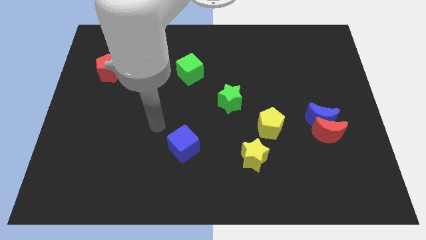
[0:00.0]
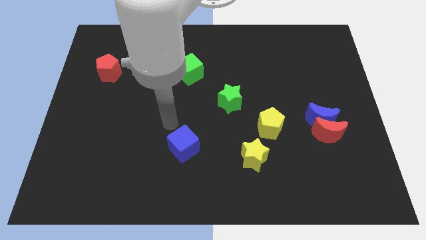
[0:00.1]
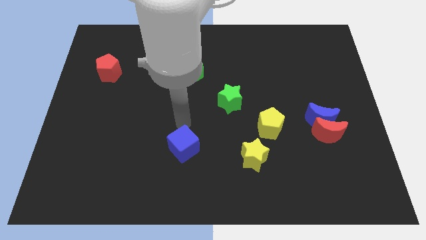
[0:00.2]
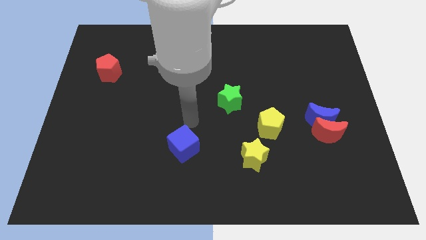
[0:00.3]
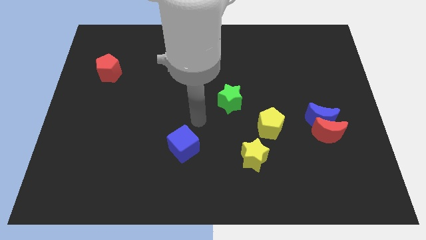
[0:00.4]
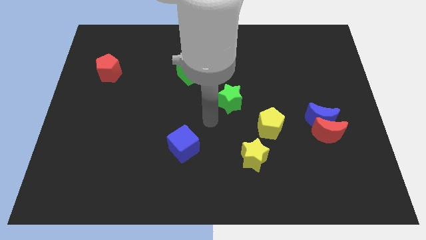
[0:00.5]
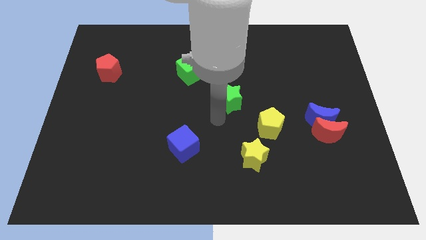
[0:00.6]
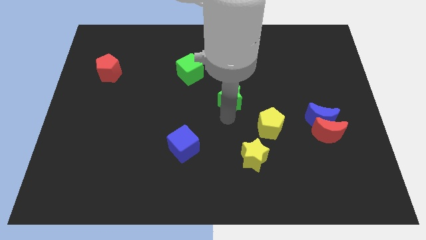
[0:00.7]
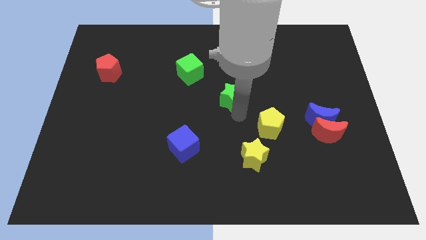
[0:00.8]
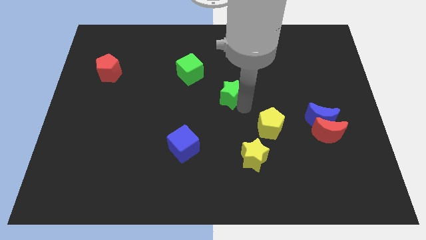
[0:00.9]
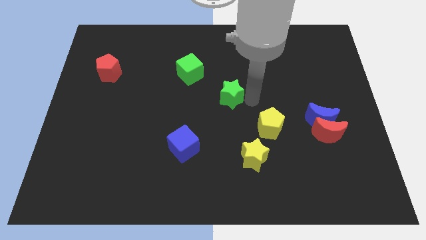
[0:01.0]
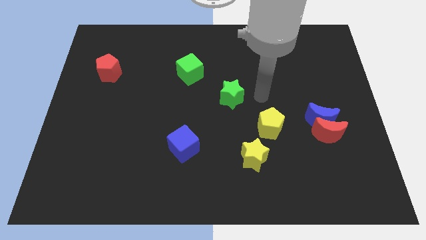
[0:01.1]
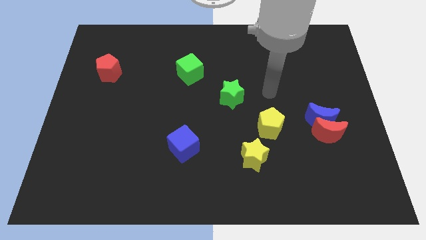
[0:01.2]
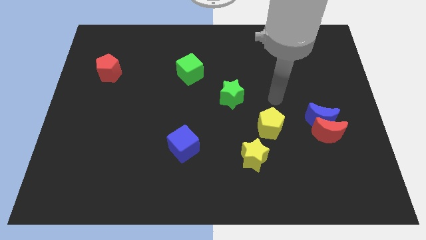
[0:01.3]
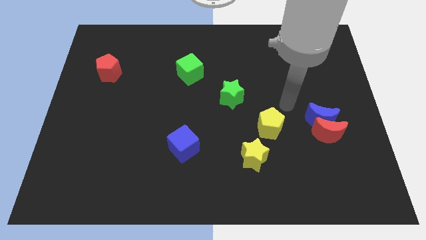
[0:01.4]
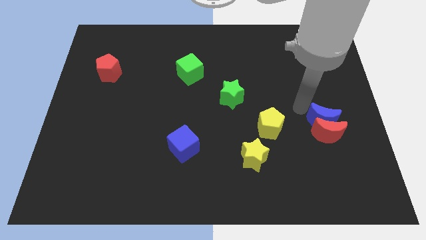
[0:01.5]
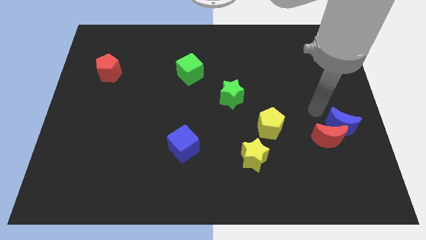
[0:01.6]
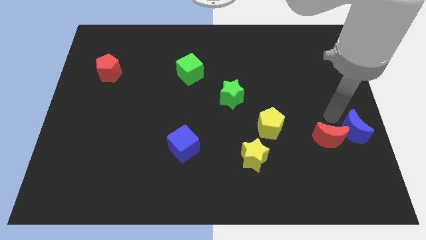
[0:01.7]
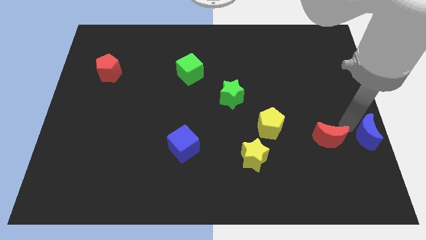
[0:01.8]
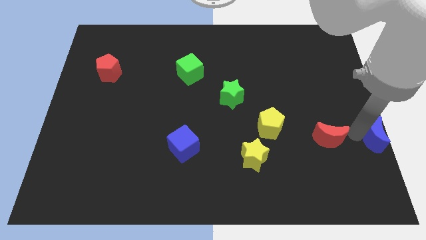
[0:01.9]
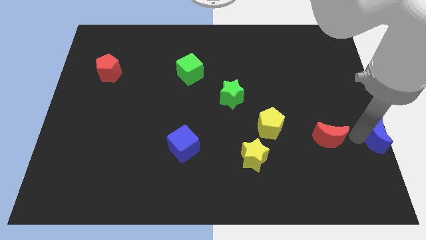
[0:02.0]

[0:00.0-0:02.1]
separate the red moon from the blue moon

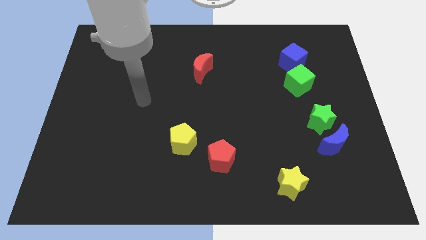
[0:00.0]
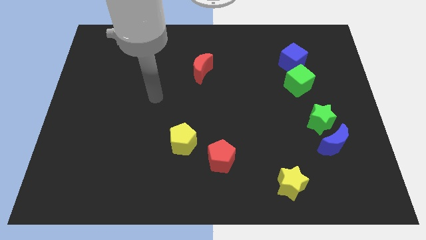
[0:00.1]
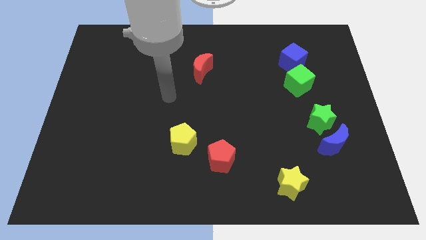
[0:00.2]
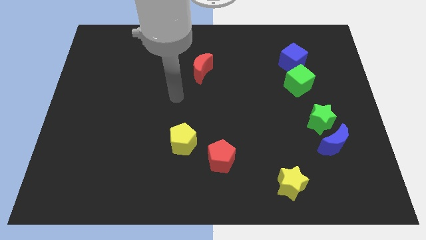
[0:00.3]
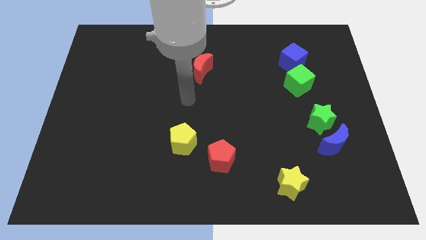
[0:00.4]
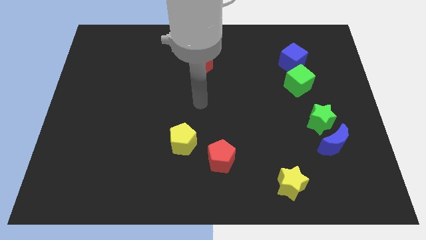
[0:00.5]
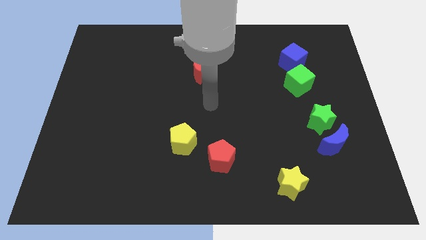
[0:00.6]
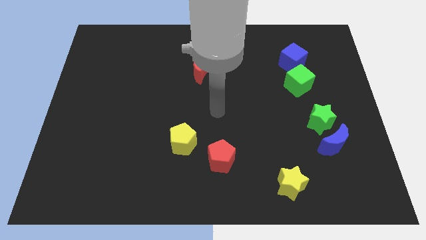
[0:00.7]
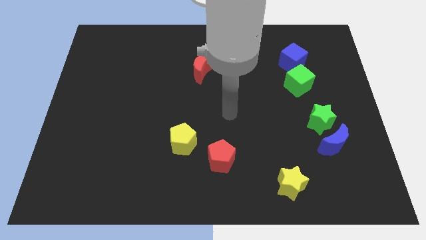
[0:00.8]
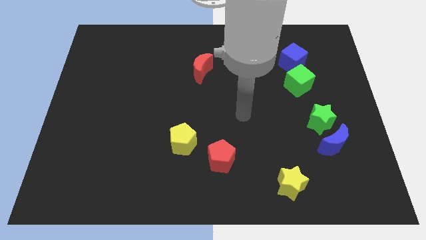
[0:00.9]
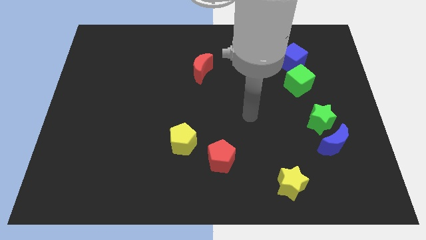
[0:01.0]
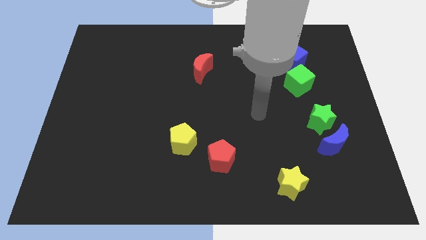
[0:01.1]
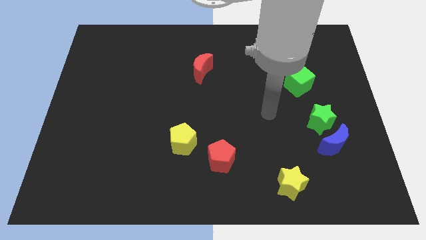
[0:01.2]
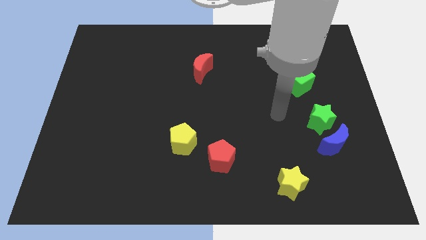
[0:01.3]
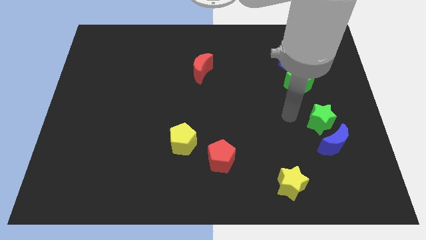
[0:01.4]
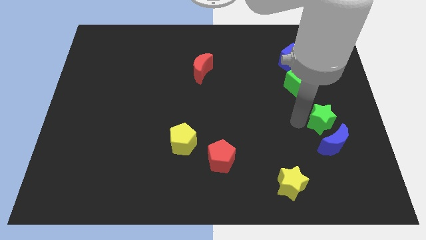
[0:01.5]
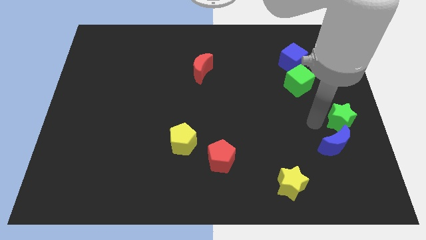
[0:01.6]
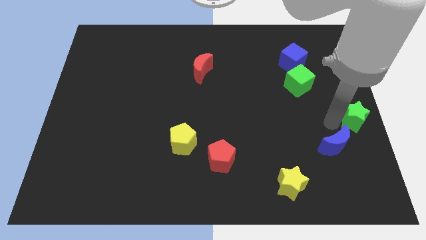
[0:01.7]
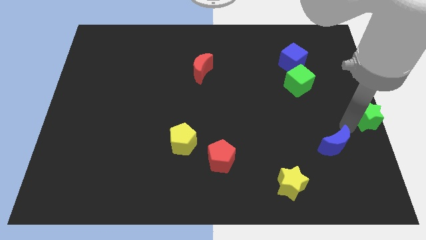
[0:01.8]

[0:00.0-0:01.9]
move the blue moon away from the green star

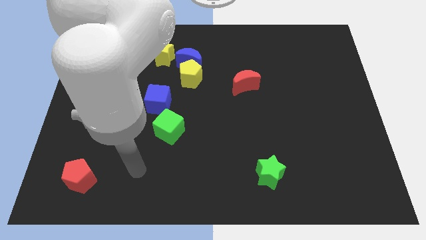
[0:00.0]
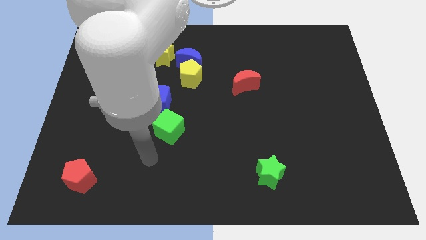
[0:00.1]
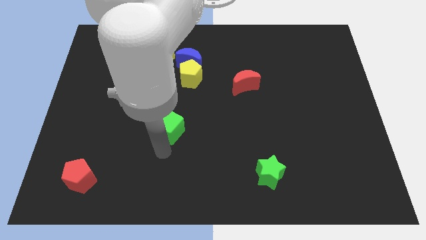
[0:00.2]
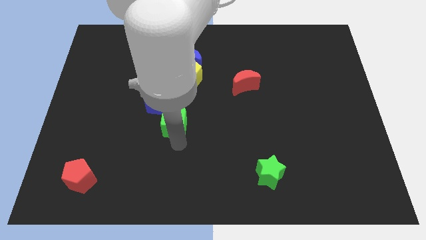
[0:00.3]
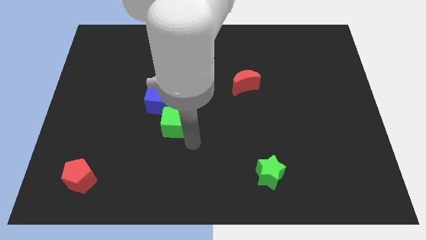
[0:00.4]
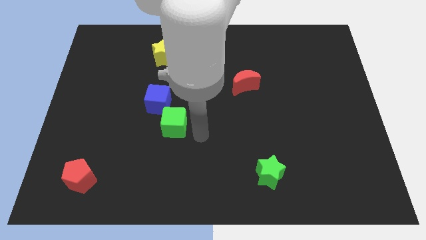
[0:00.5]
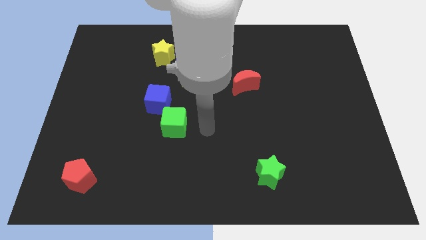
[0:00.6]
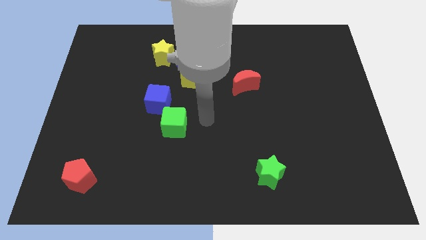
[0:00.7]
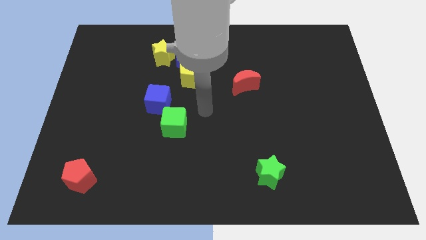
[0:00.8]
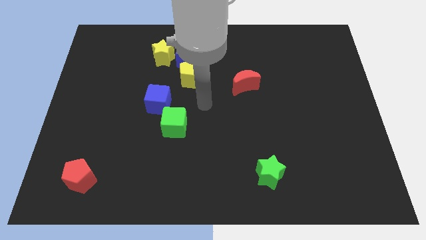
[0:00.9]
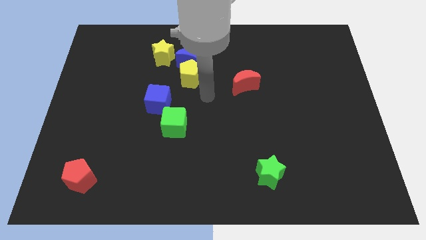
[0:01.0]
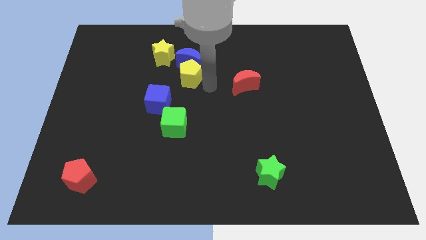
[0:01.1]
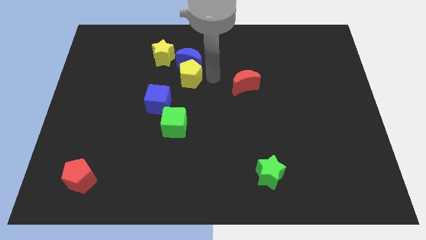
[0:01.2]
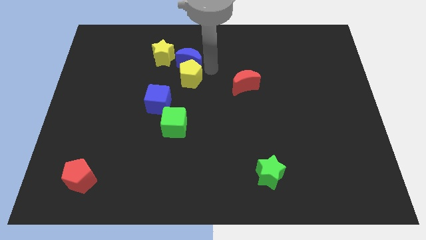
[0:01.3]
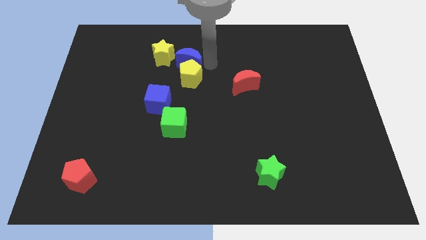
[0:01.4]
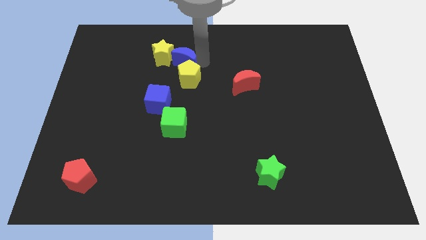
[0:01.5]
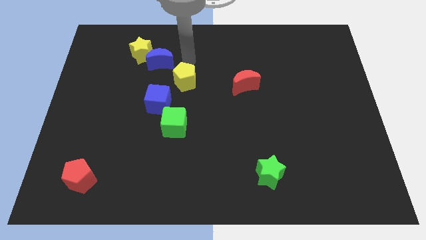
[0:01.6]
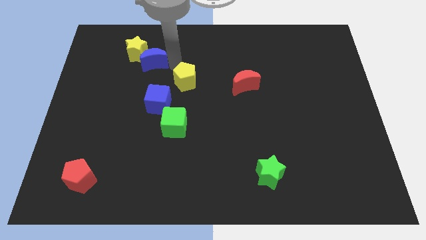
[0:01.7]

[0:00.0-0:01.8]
move the yellow pentagon away from the blue moon

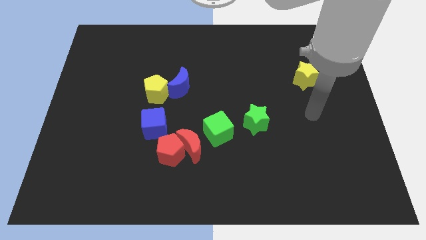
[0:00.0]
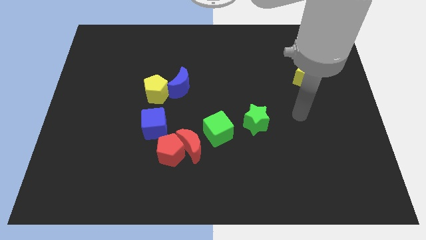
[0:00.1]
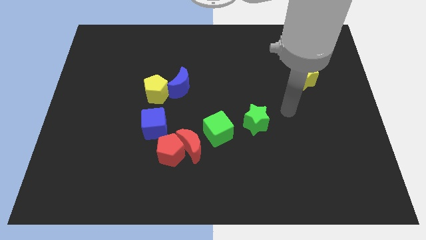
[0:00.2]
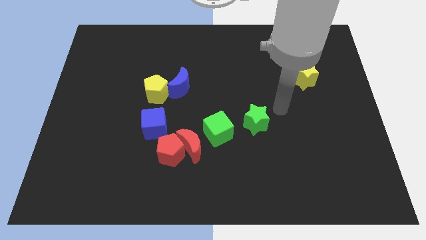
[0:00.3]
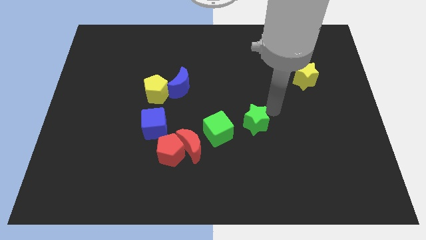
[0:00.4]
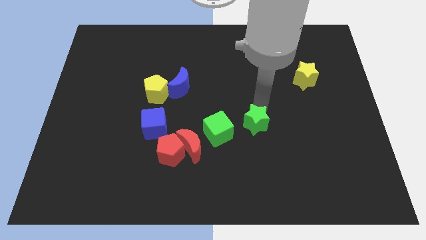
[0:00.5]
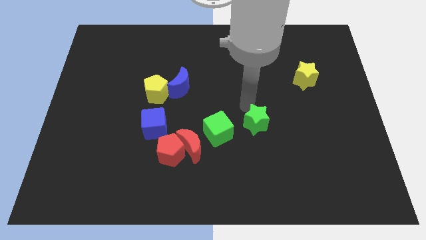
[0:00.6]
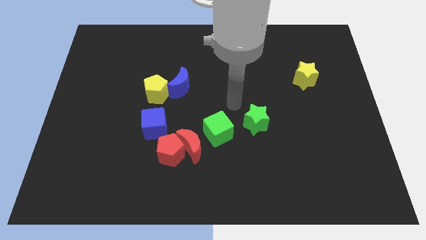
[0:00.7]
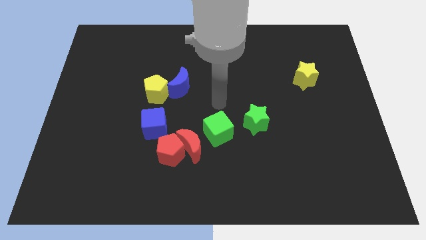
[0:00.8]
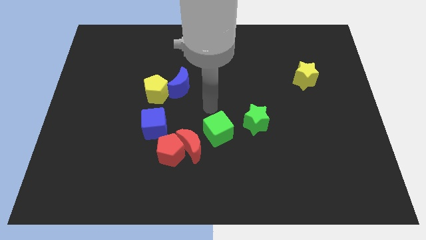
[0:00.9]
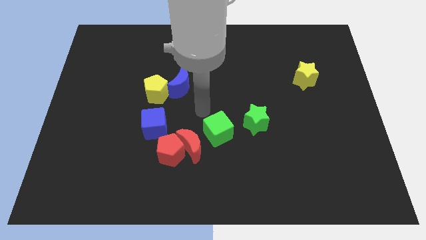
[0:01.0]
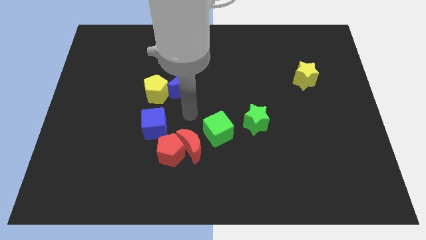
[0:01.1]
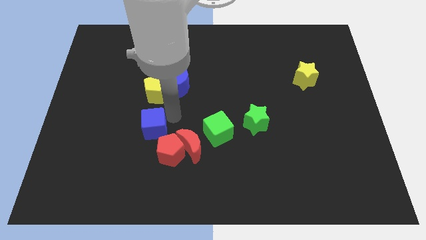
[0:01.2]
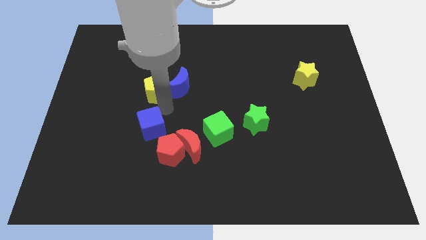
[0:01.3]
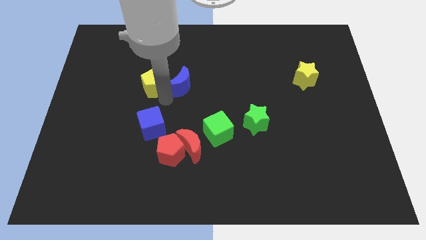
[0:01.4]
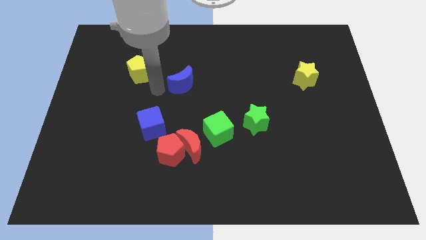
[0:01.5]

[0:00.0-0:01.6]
move the blue moon away from the yellow pentagon

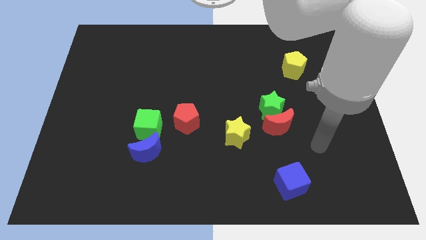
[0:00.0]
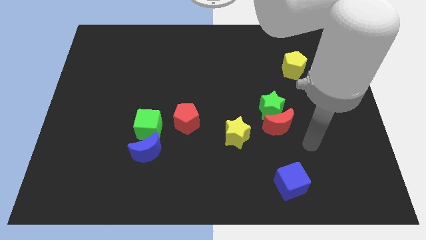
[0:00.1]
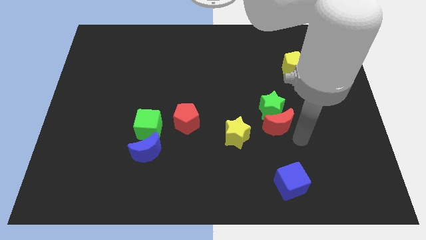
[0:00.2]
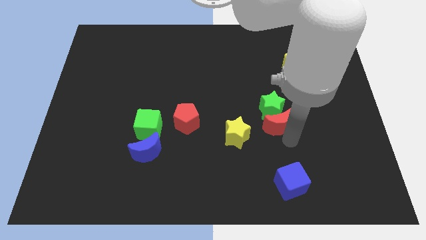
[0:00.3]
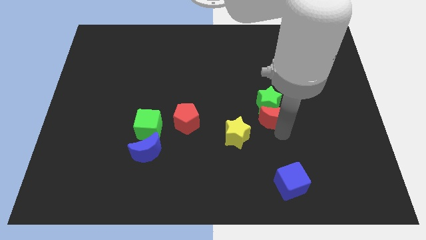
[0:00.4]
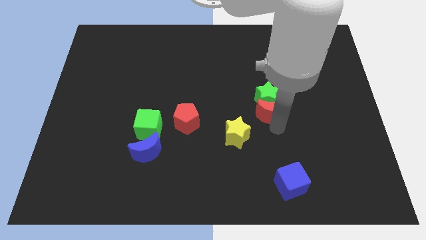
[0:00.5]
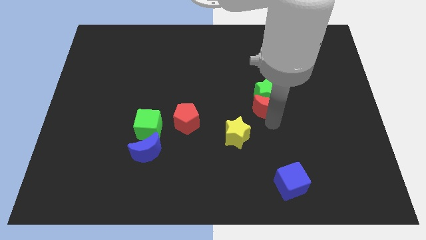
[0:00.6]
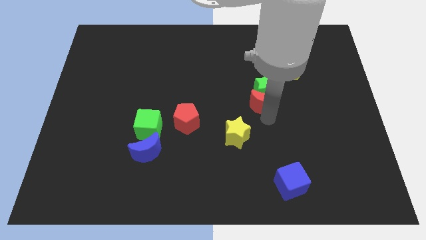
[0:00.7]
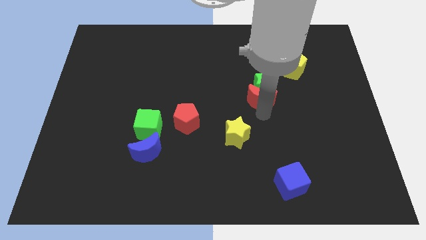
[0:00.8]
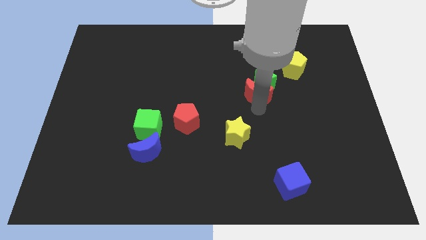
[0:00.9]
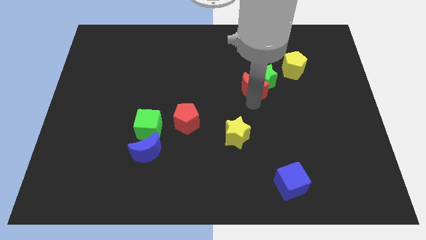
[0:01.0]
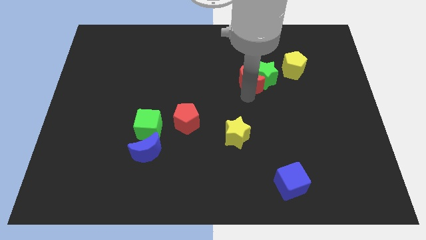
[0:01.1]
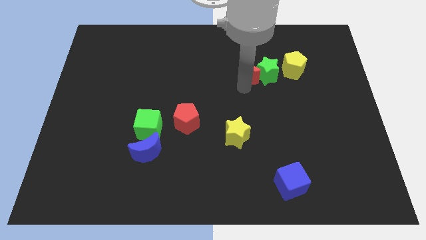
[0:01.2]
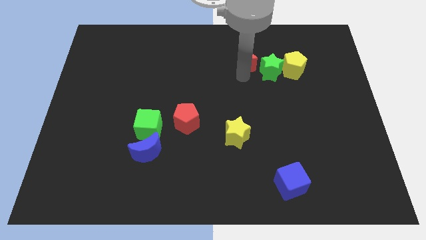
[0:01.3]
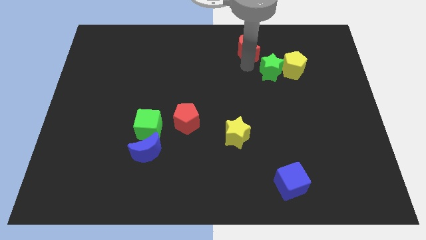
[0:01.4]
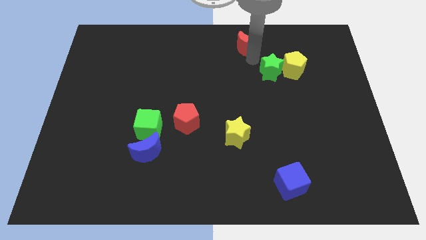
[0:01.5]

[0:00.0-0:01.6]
move the green star away from the red moon

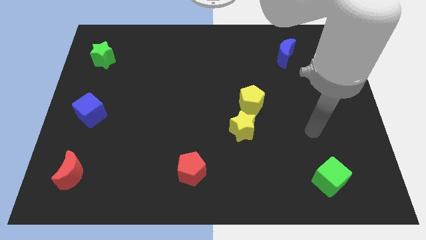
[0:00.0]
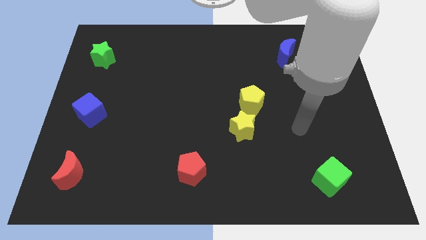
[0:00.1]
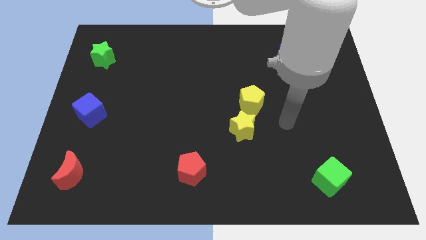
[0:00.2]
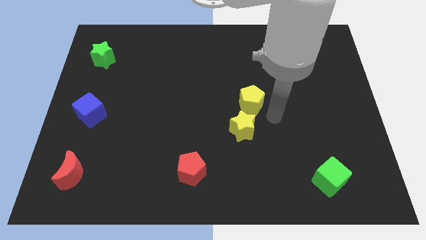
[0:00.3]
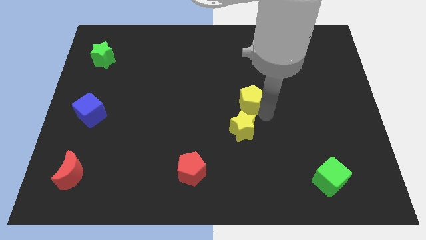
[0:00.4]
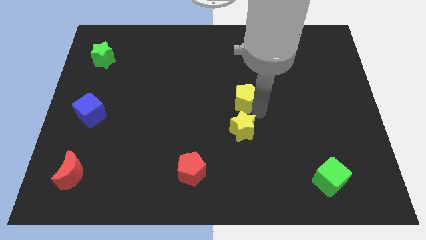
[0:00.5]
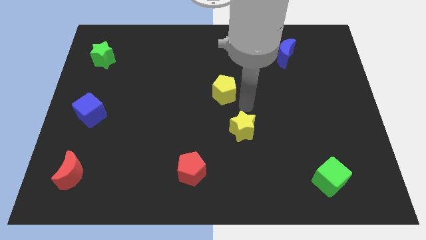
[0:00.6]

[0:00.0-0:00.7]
move the yellow star away from the yellow pentagon
